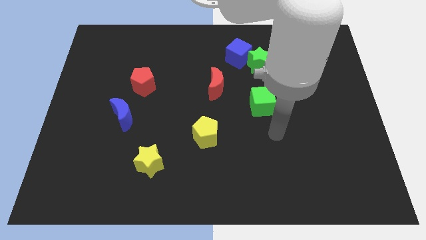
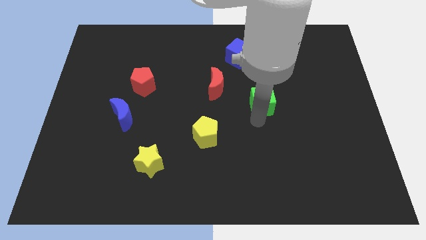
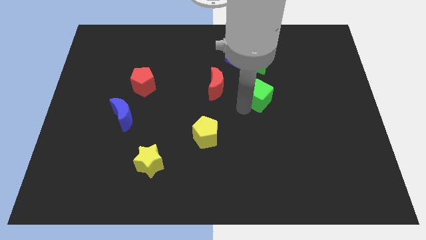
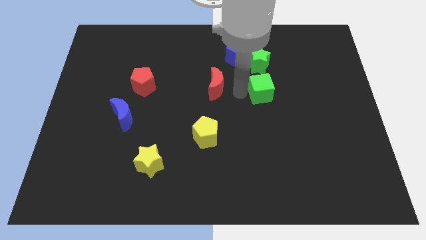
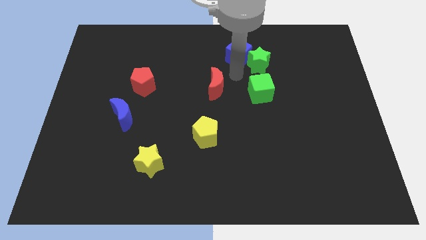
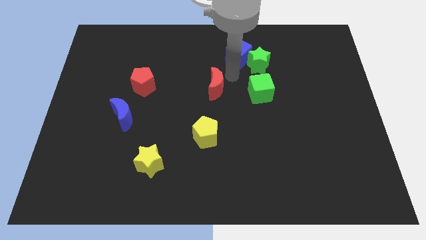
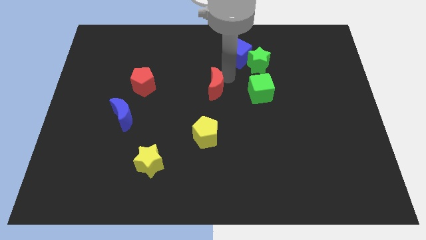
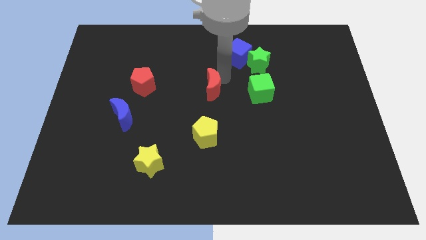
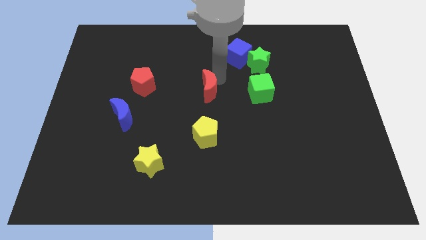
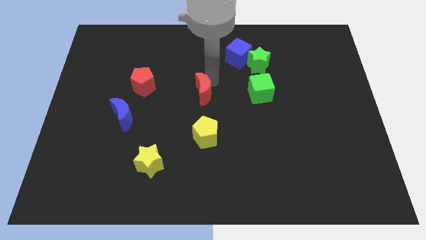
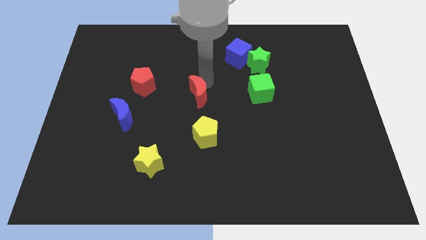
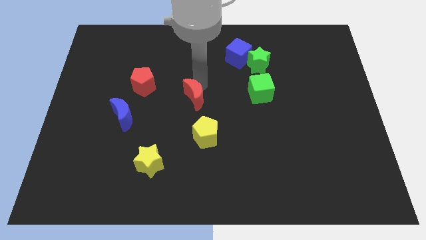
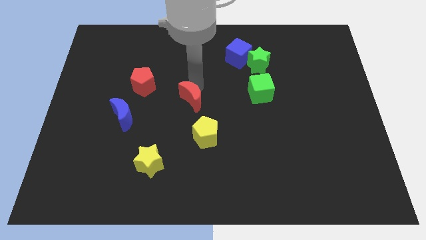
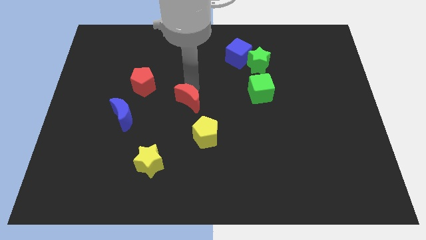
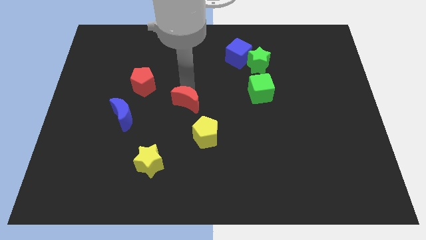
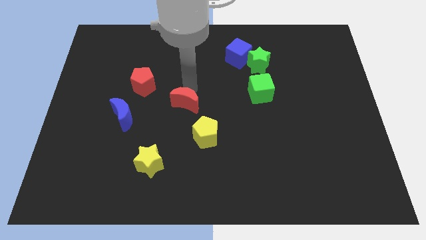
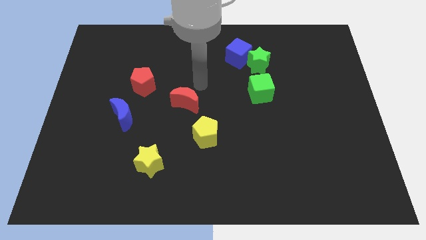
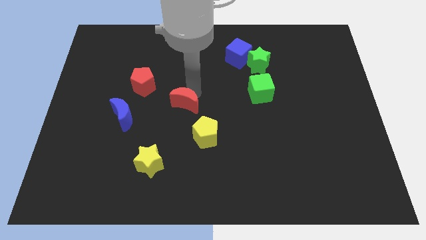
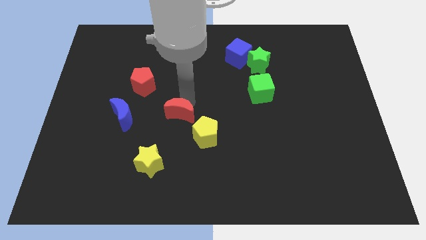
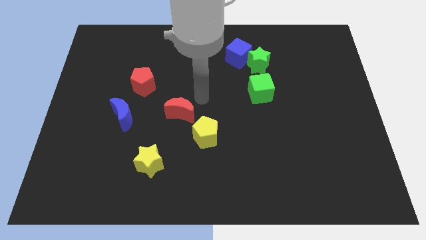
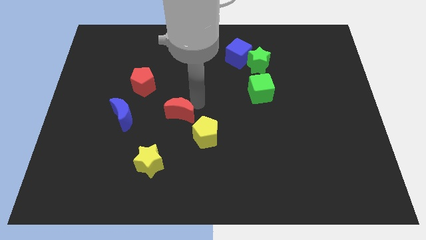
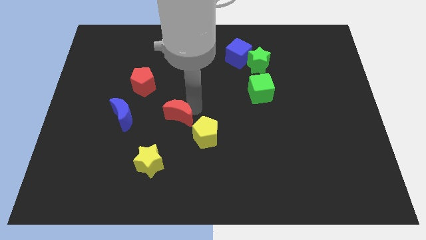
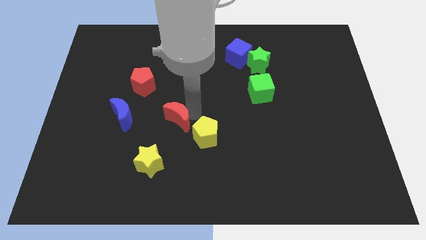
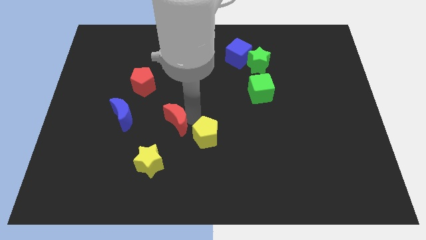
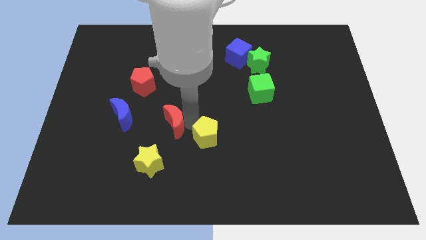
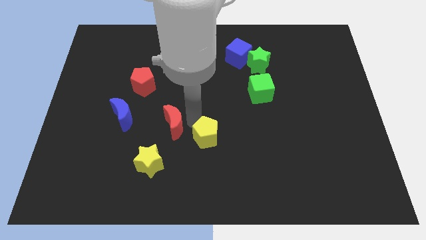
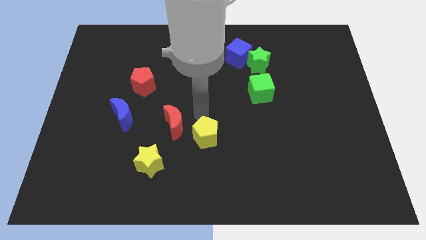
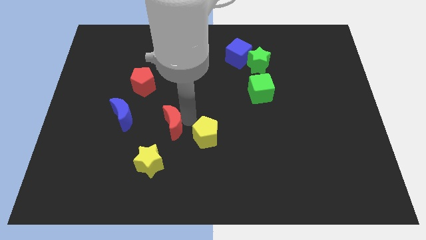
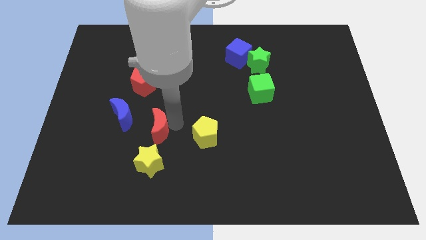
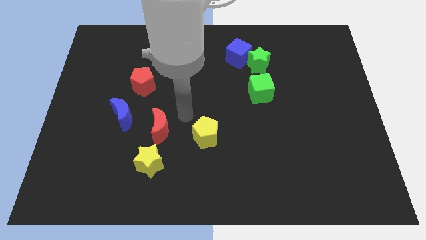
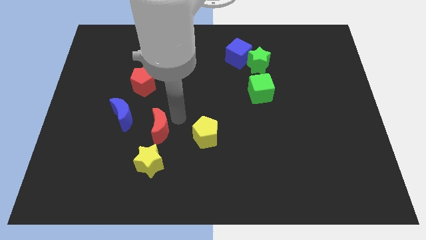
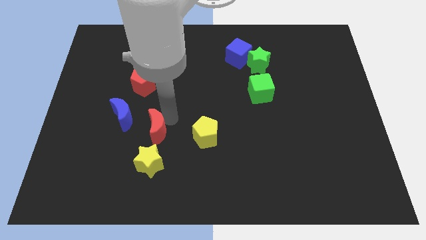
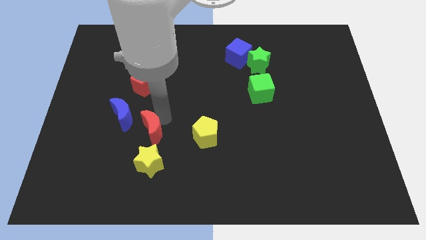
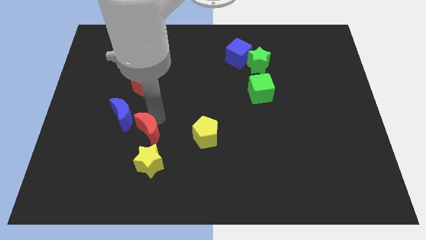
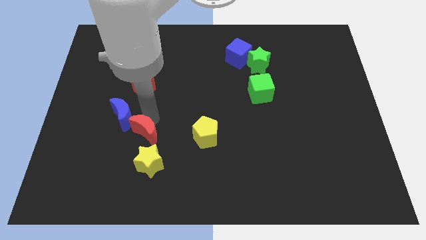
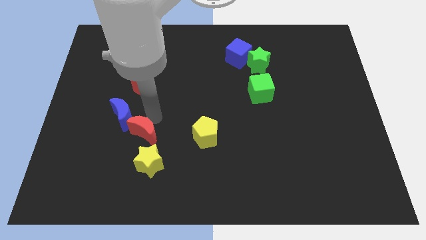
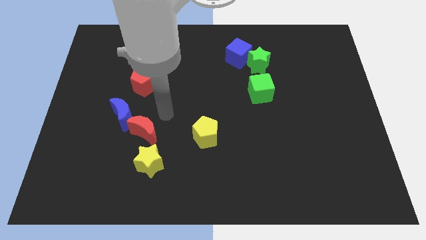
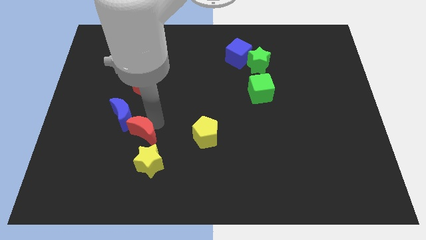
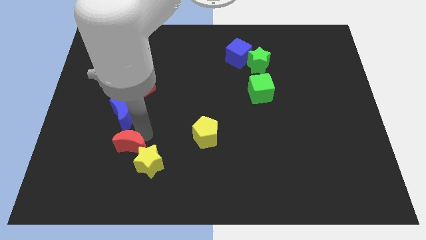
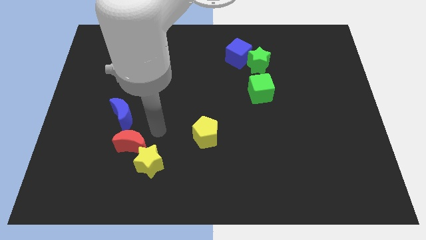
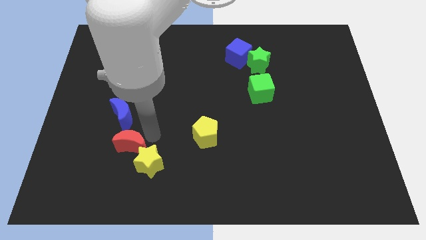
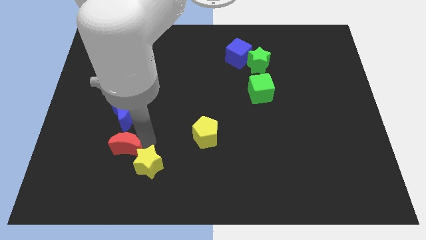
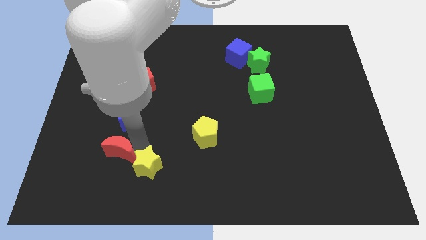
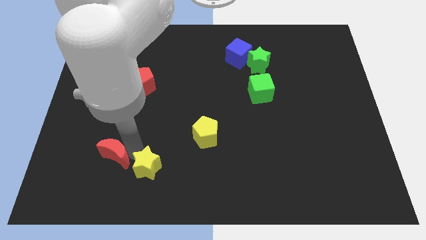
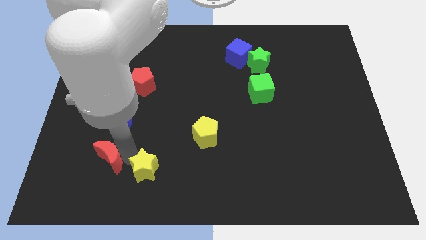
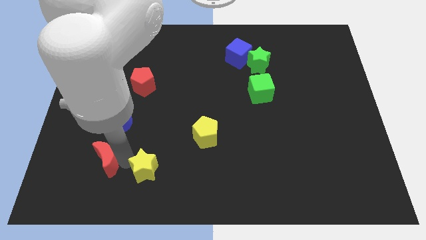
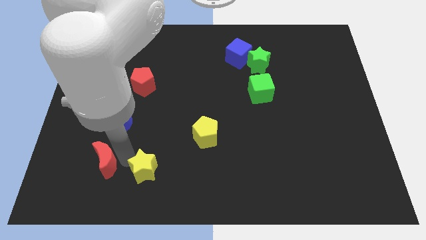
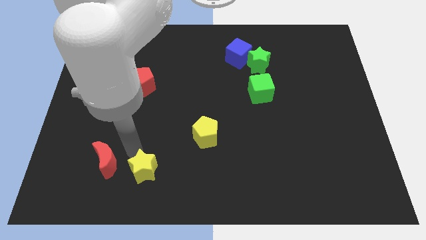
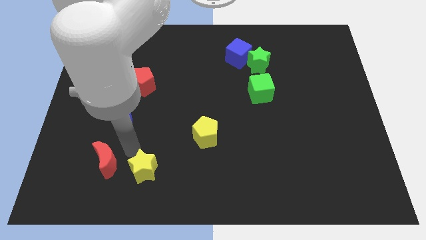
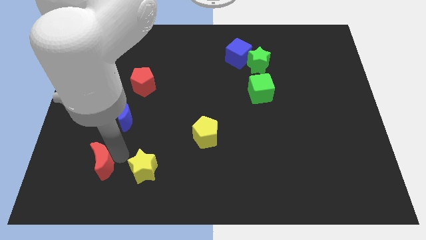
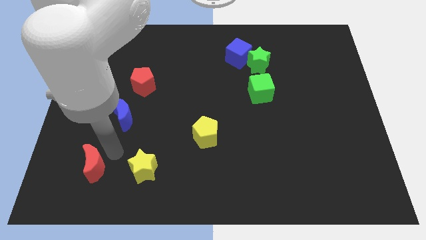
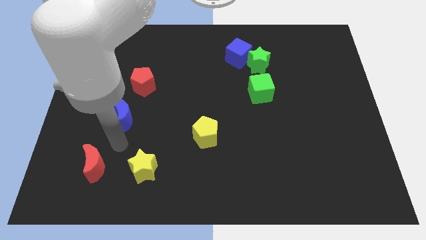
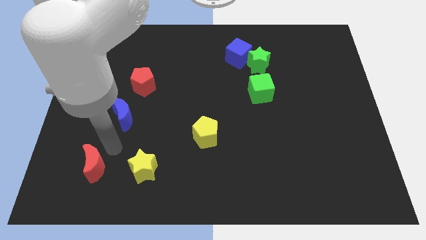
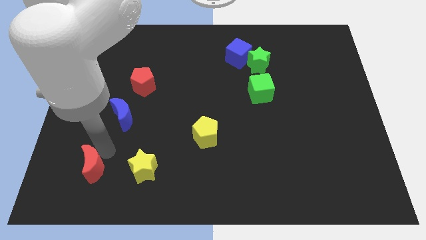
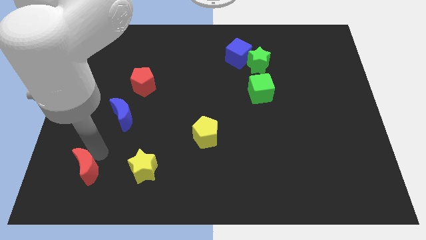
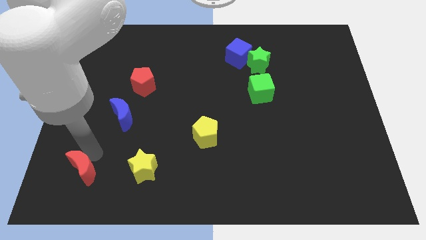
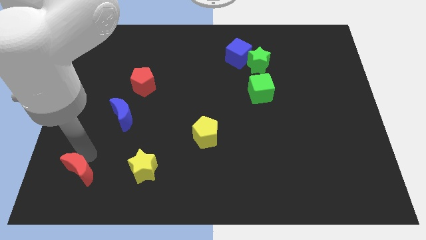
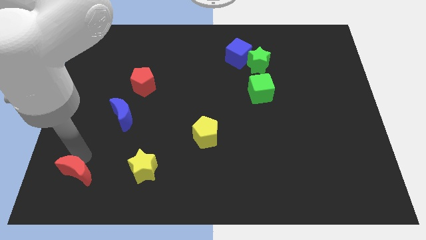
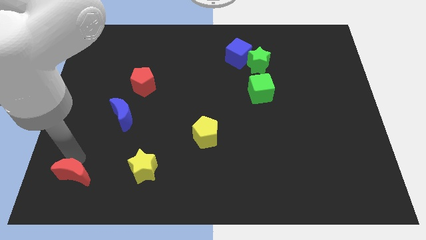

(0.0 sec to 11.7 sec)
put the red moon to the lower left corner
